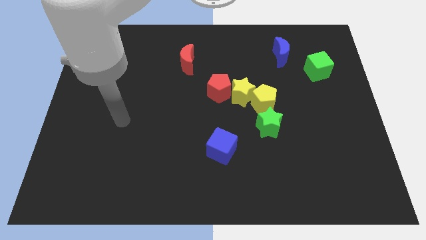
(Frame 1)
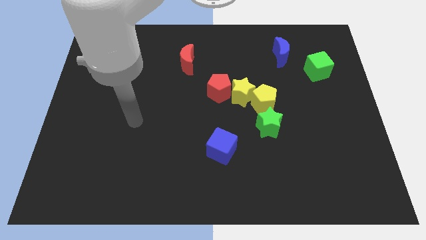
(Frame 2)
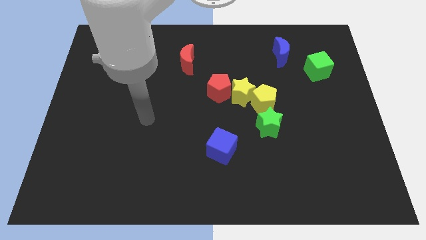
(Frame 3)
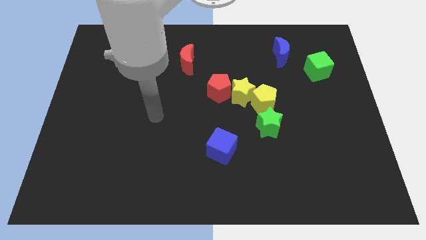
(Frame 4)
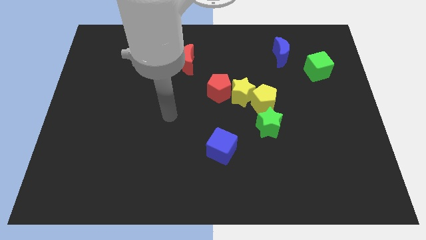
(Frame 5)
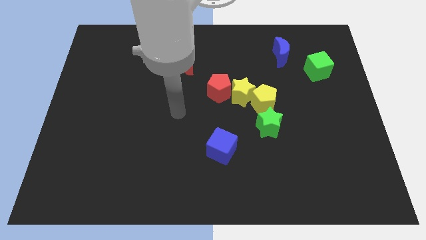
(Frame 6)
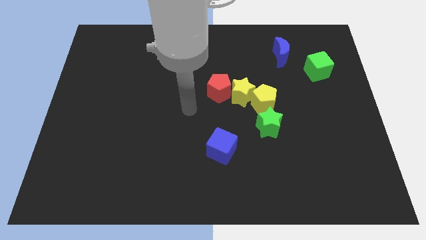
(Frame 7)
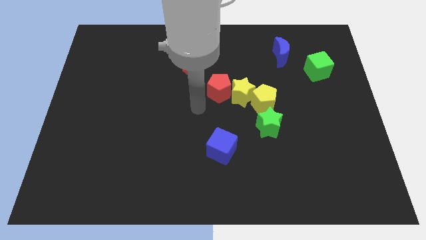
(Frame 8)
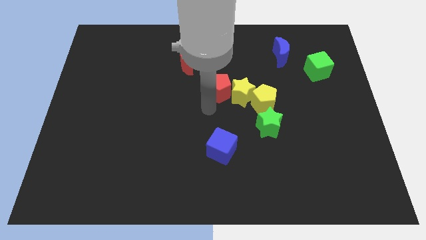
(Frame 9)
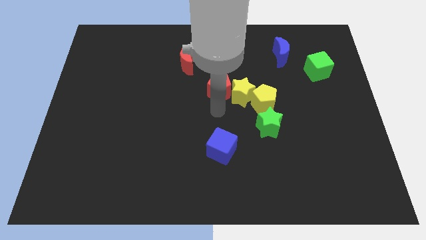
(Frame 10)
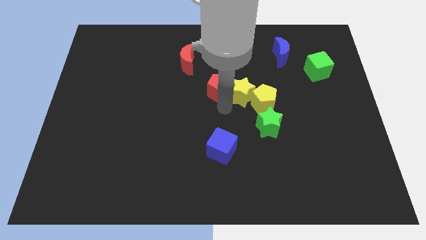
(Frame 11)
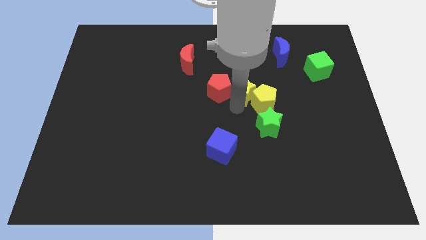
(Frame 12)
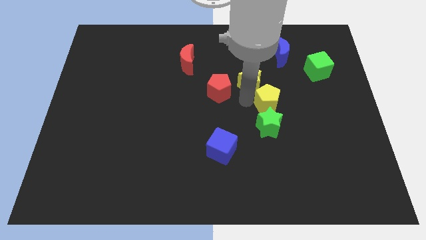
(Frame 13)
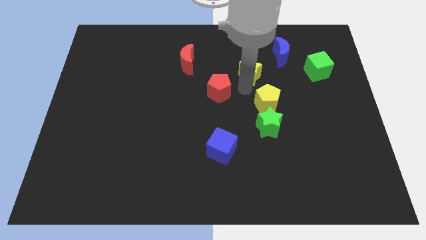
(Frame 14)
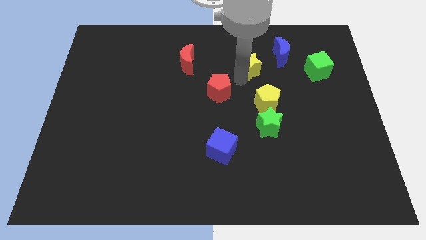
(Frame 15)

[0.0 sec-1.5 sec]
move the red pentagon away from the yellow star

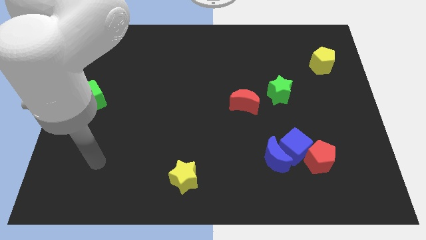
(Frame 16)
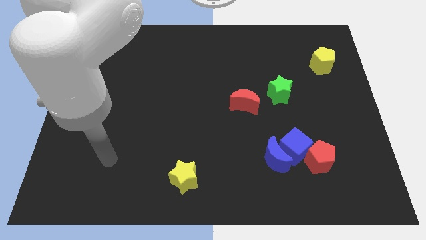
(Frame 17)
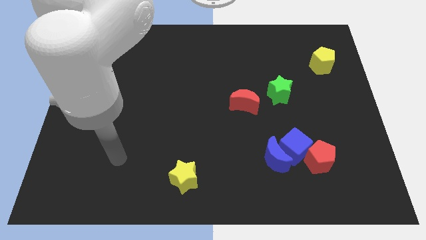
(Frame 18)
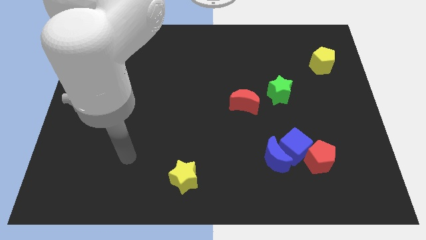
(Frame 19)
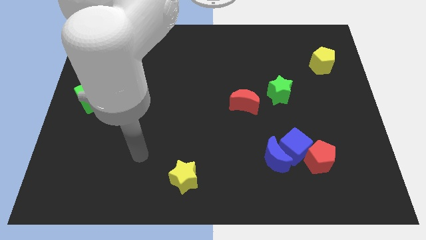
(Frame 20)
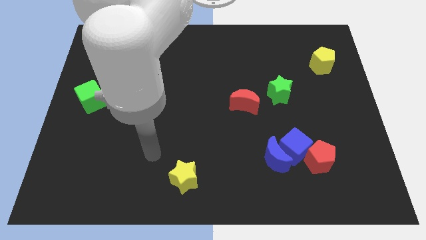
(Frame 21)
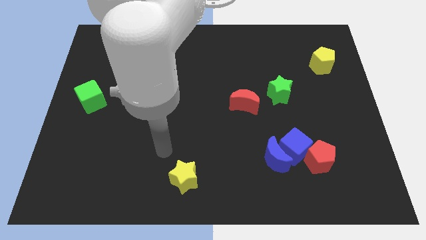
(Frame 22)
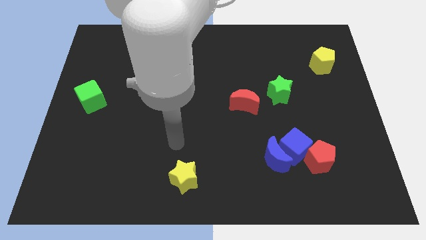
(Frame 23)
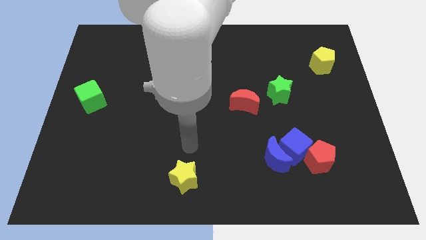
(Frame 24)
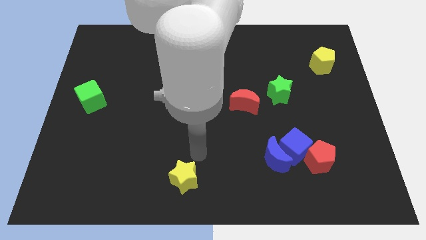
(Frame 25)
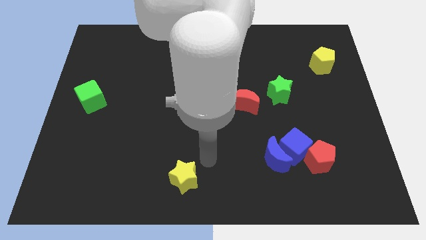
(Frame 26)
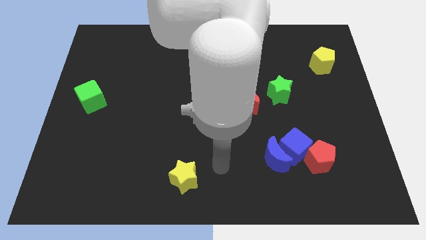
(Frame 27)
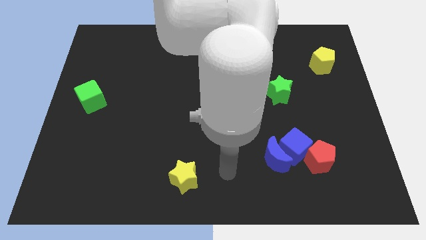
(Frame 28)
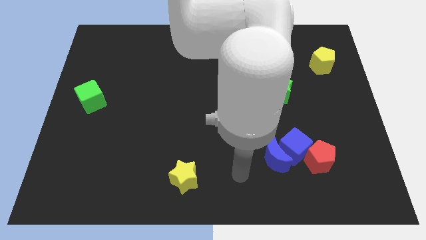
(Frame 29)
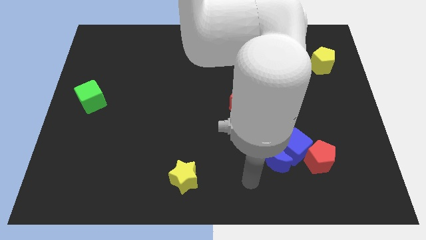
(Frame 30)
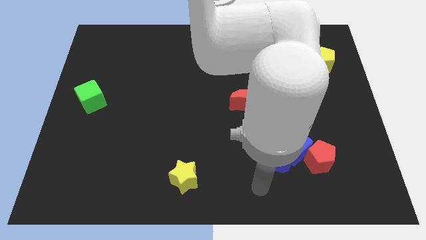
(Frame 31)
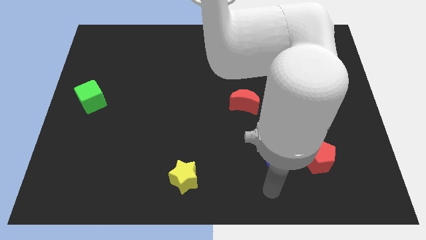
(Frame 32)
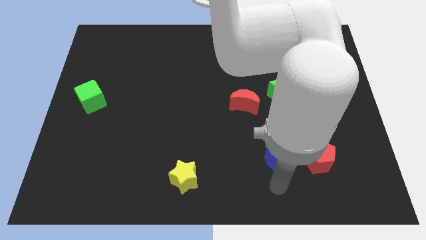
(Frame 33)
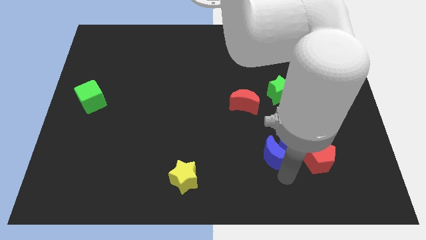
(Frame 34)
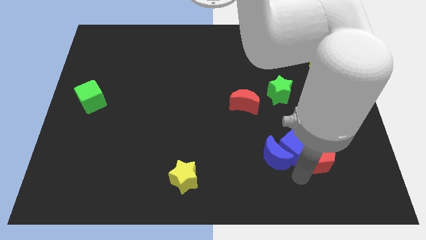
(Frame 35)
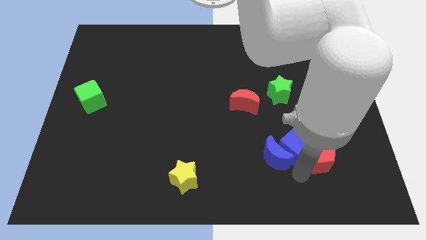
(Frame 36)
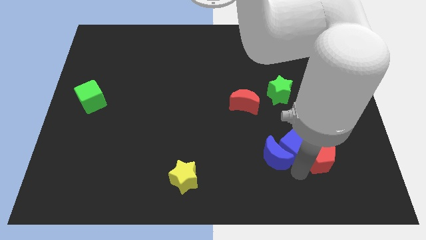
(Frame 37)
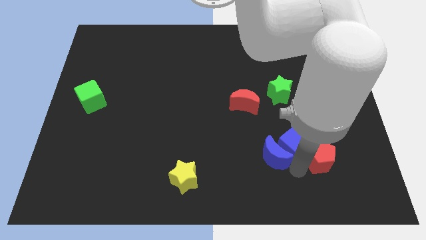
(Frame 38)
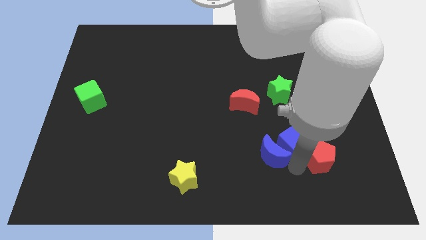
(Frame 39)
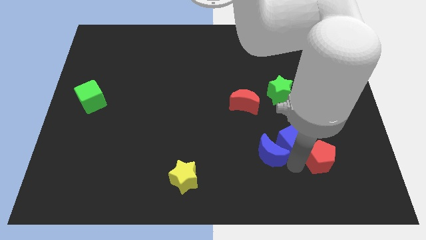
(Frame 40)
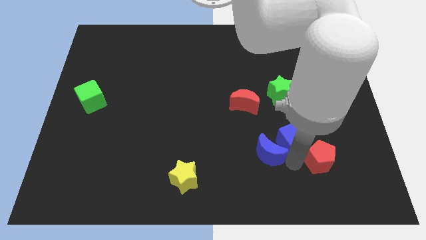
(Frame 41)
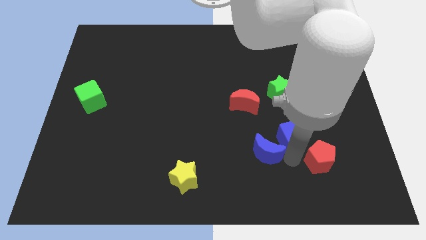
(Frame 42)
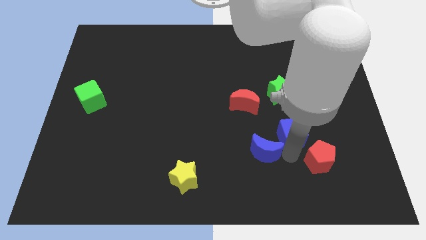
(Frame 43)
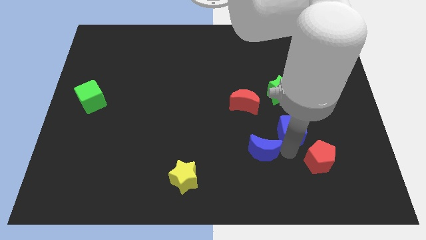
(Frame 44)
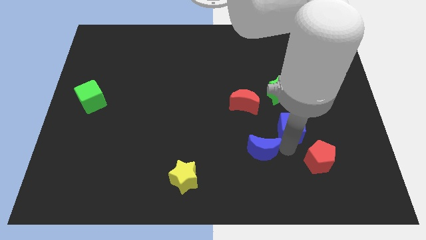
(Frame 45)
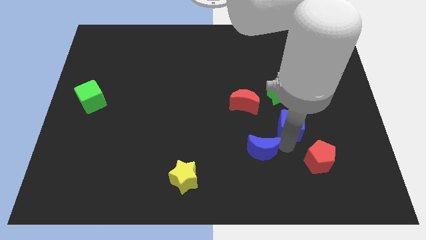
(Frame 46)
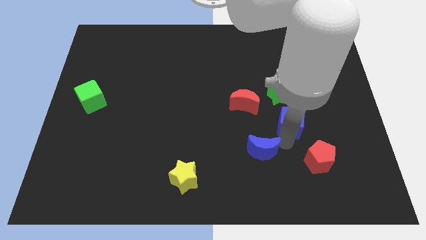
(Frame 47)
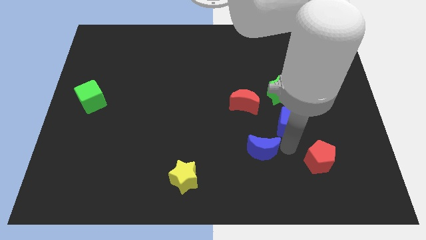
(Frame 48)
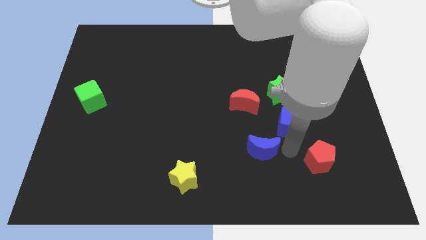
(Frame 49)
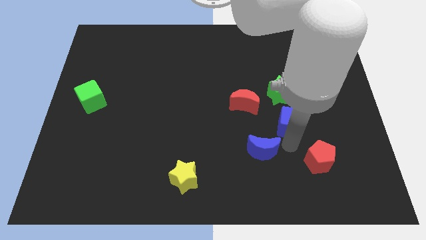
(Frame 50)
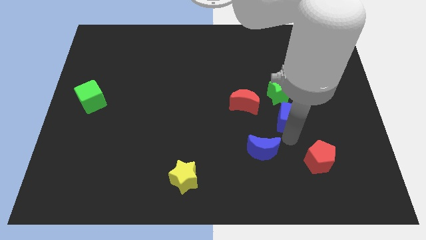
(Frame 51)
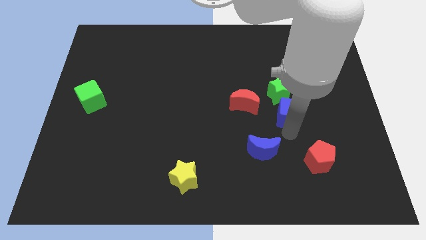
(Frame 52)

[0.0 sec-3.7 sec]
move the blue cube away from the blue moon and red pentagon

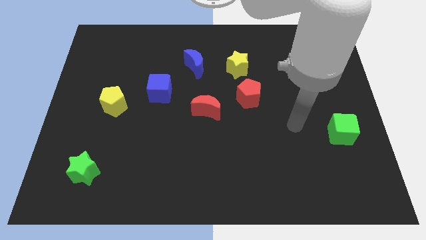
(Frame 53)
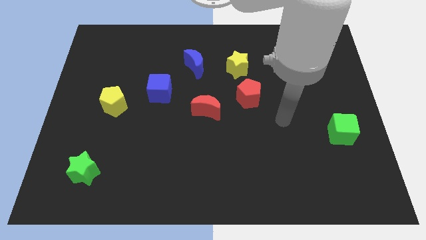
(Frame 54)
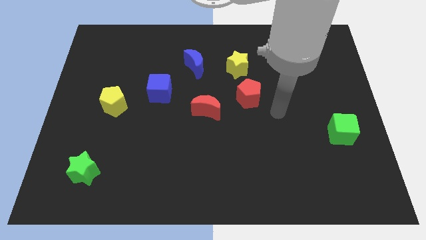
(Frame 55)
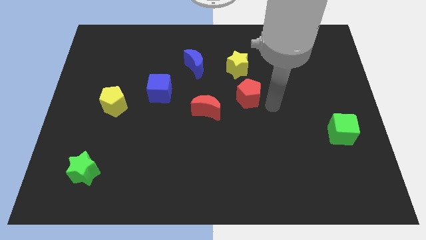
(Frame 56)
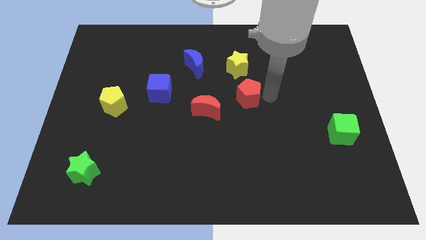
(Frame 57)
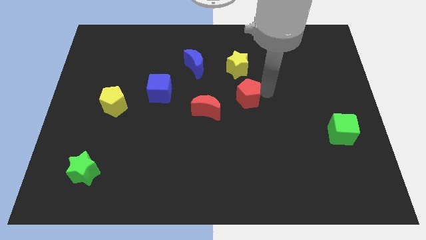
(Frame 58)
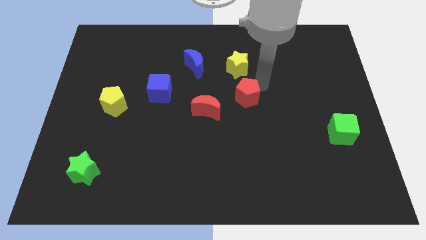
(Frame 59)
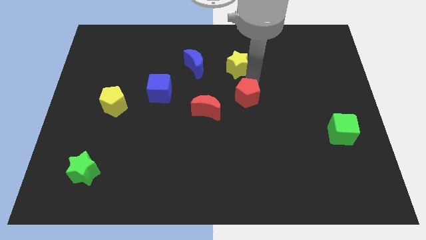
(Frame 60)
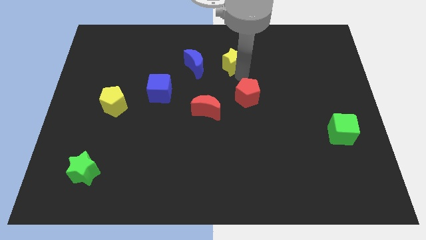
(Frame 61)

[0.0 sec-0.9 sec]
pull the red pentagon apart from the yellow star

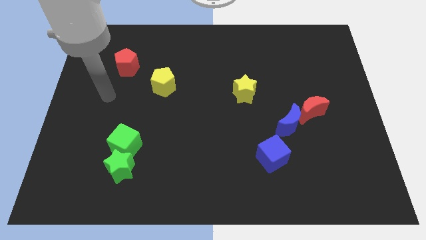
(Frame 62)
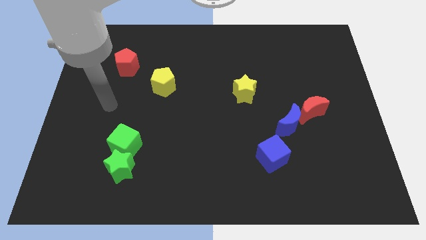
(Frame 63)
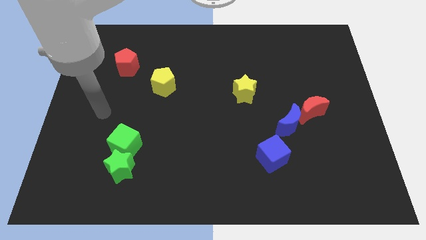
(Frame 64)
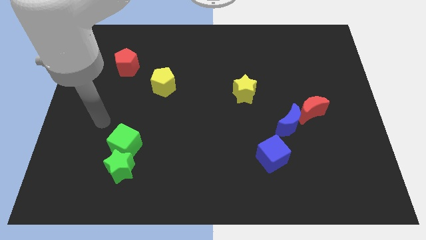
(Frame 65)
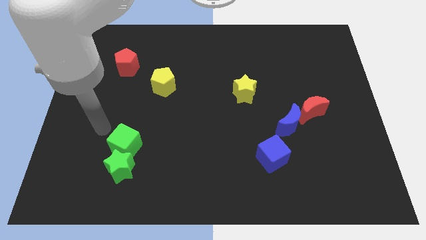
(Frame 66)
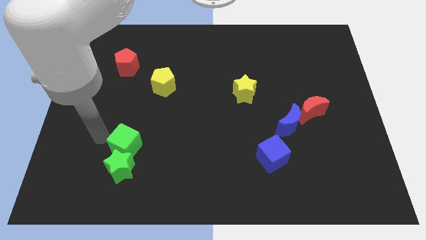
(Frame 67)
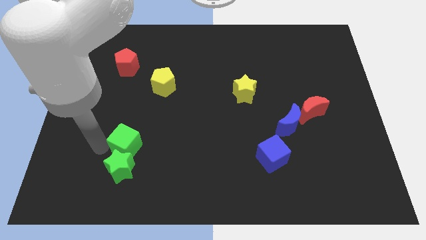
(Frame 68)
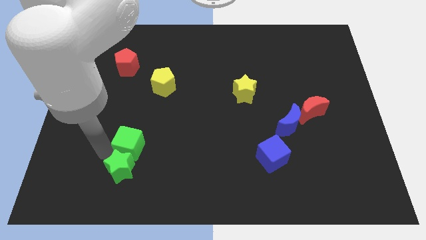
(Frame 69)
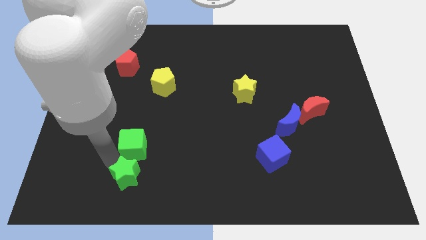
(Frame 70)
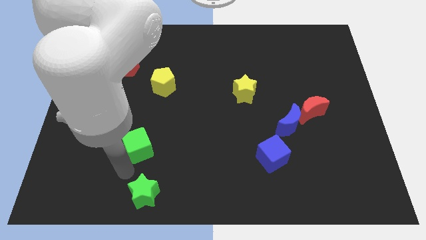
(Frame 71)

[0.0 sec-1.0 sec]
move the green cube away from the green star

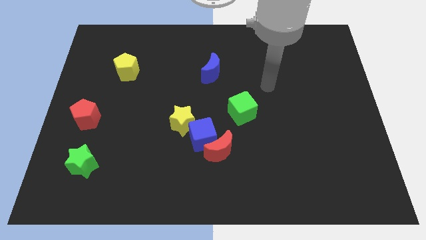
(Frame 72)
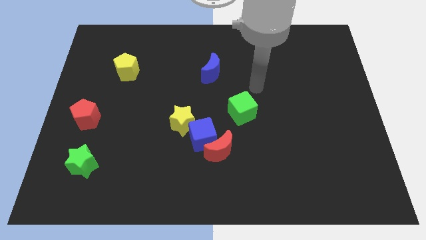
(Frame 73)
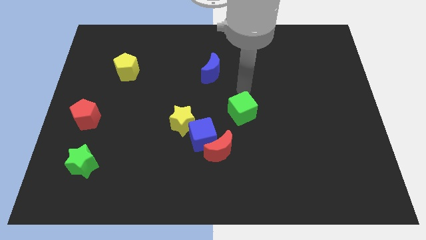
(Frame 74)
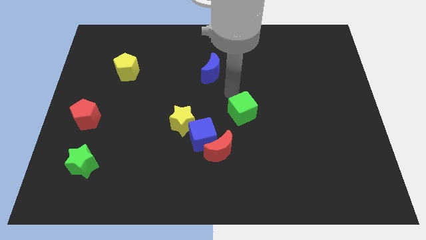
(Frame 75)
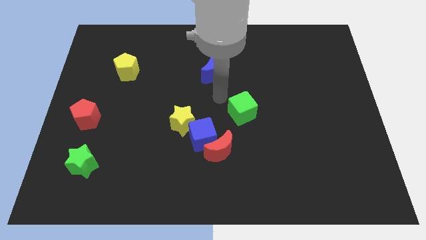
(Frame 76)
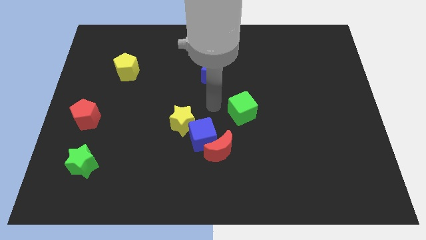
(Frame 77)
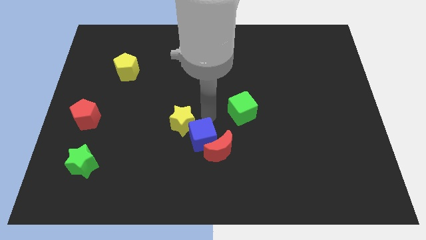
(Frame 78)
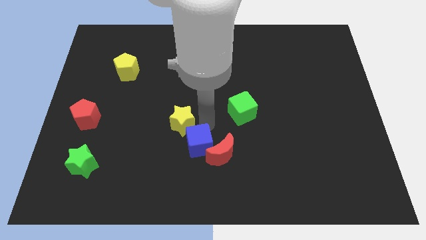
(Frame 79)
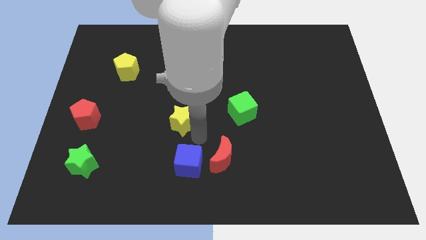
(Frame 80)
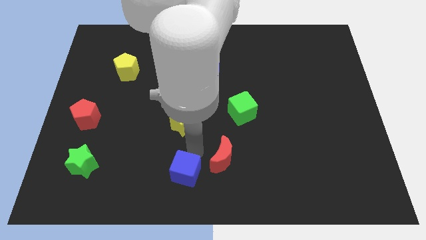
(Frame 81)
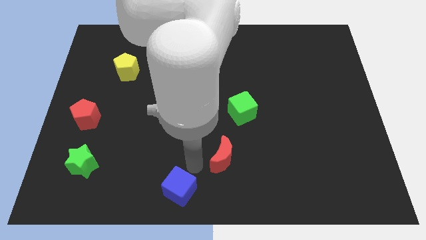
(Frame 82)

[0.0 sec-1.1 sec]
move the red moon away from the blue cube

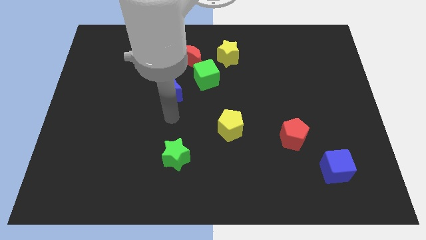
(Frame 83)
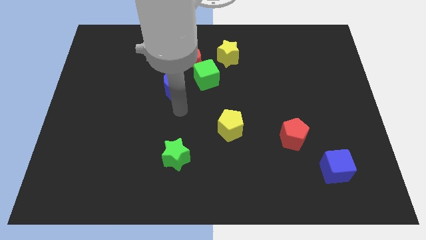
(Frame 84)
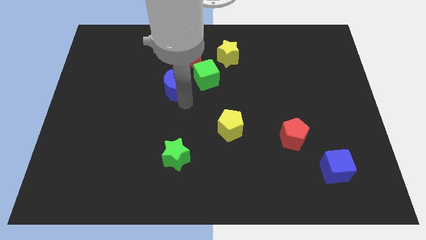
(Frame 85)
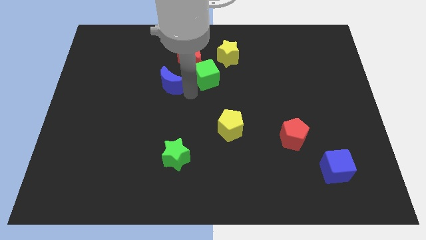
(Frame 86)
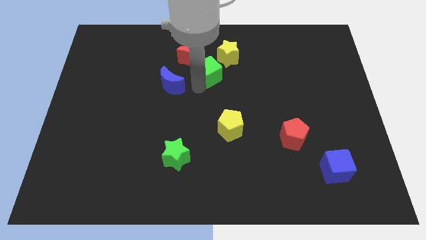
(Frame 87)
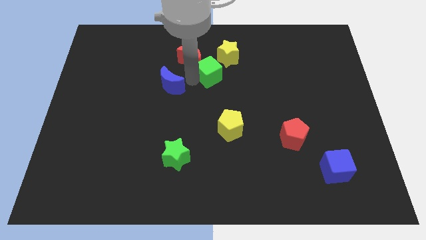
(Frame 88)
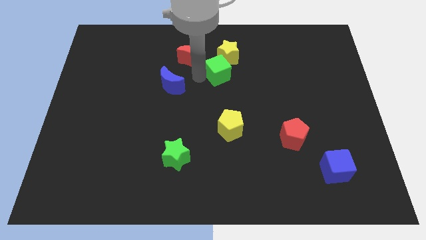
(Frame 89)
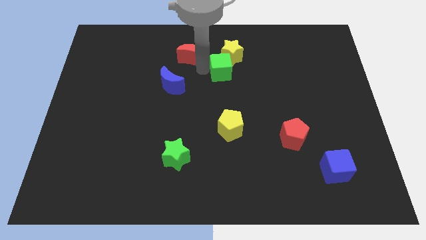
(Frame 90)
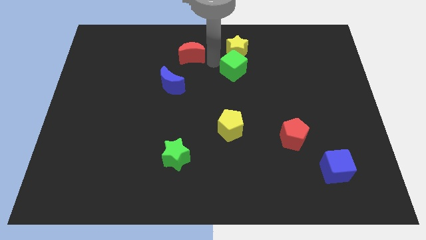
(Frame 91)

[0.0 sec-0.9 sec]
move the red moon away from the green cube and yellow star

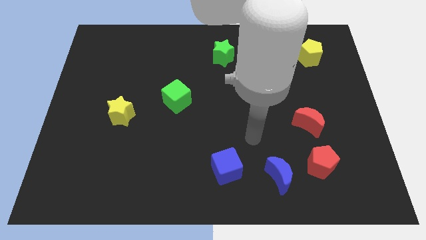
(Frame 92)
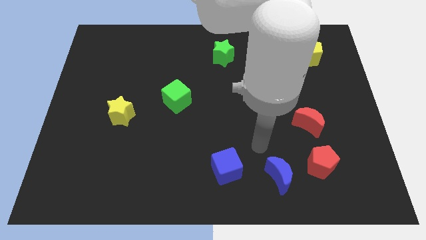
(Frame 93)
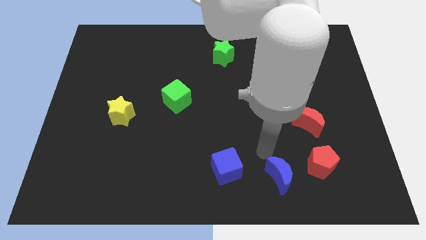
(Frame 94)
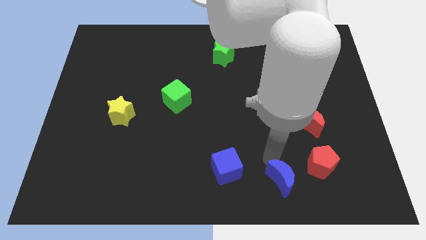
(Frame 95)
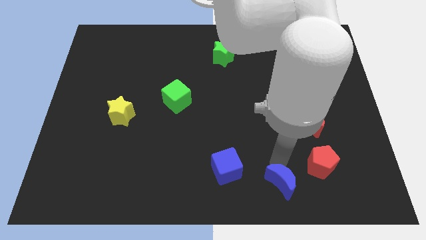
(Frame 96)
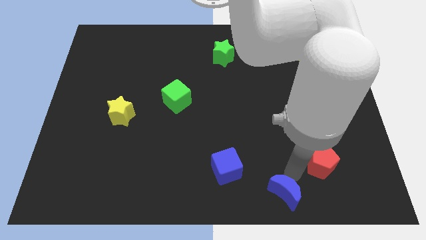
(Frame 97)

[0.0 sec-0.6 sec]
pull the red pentagon apart from the blue moon
